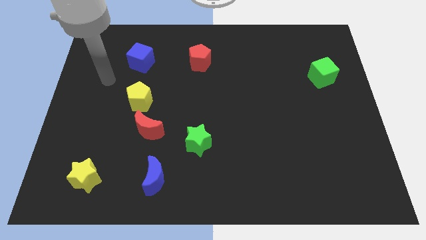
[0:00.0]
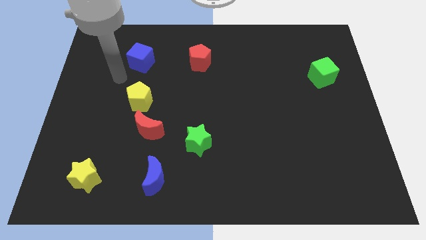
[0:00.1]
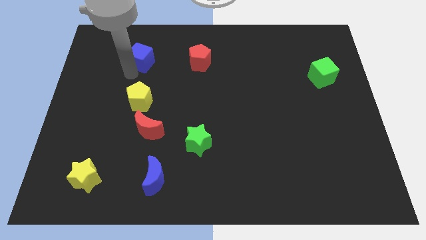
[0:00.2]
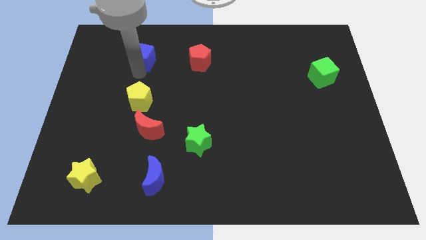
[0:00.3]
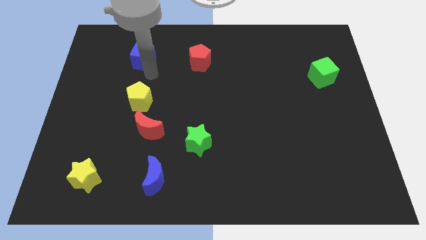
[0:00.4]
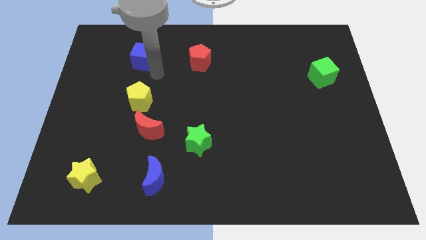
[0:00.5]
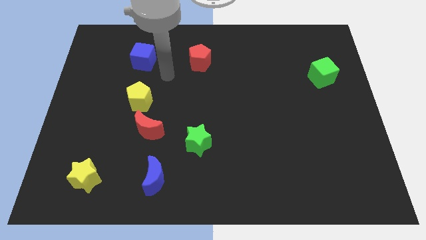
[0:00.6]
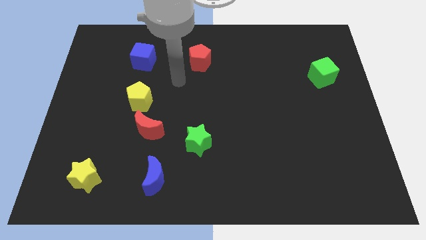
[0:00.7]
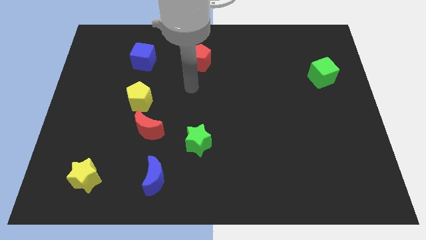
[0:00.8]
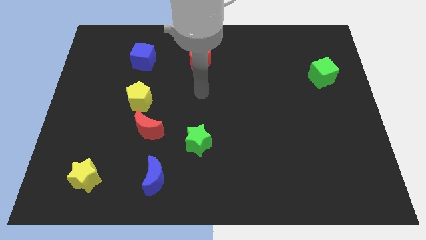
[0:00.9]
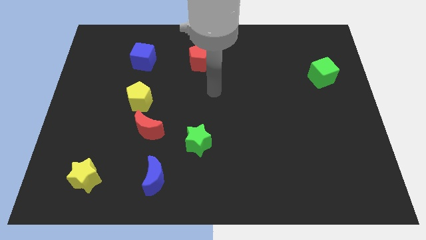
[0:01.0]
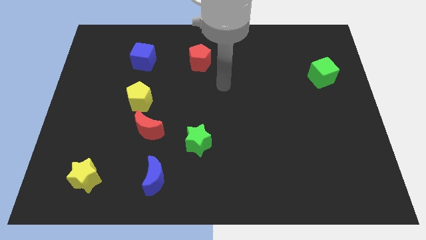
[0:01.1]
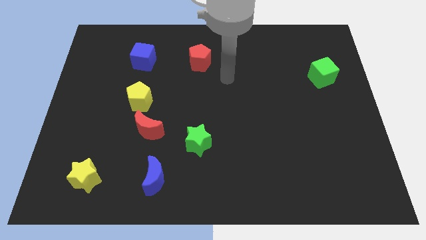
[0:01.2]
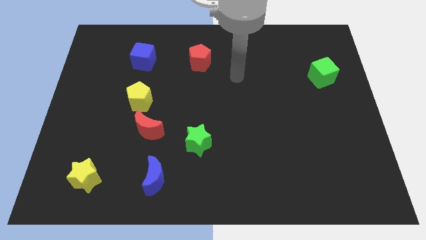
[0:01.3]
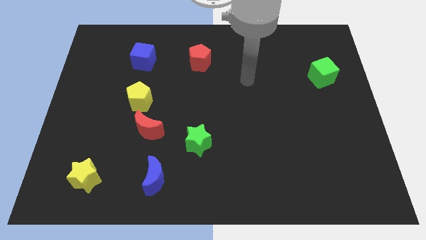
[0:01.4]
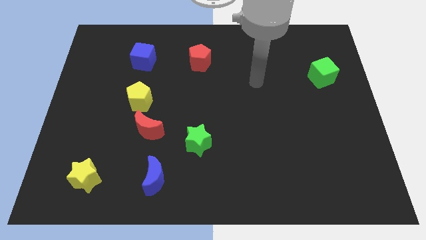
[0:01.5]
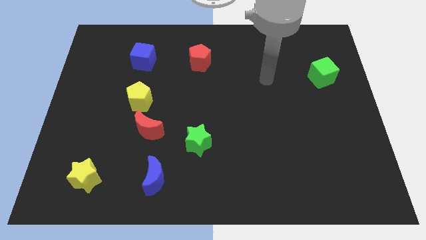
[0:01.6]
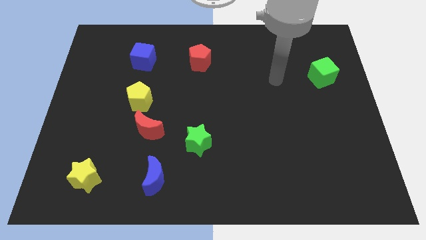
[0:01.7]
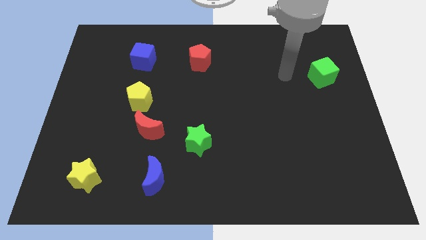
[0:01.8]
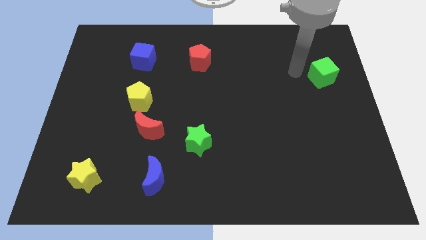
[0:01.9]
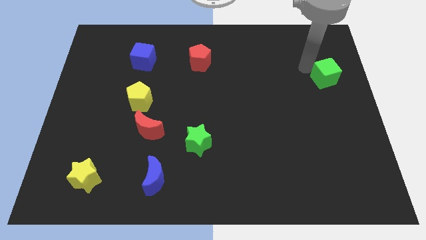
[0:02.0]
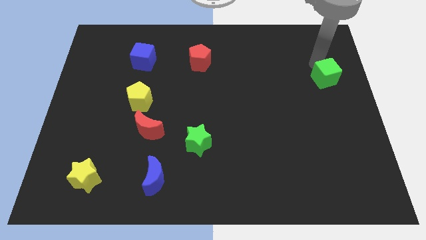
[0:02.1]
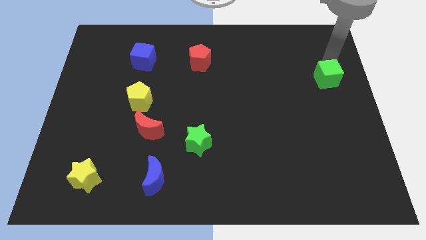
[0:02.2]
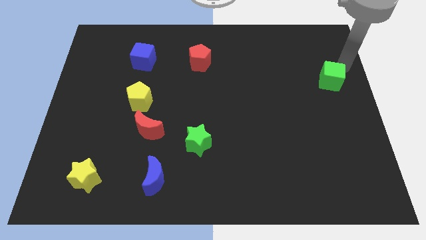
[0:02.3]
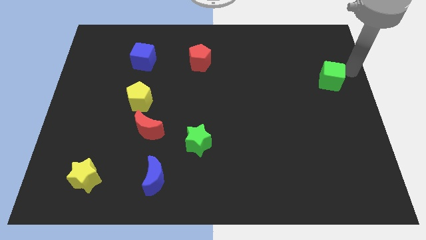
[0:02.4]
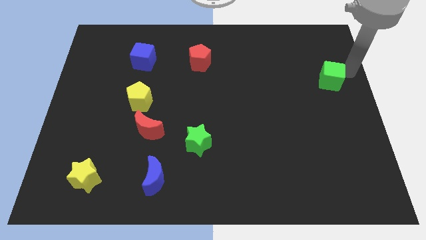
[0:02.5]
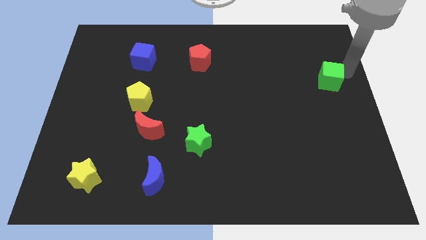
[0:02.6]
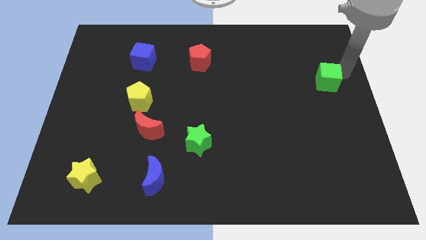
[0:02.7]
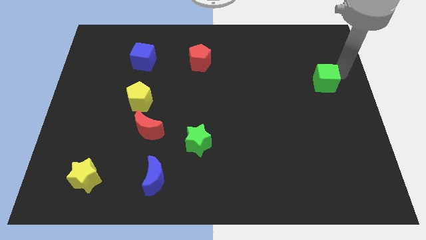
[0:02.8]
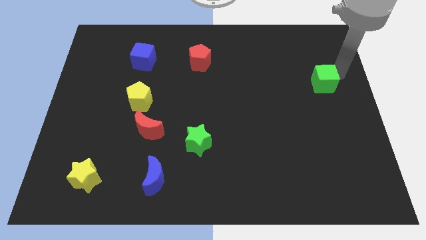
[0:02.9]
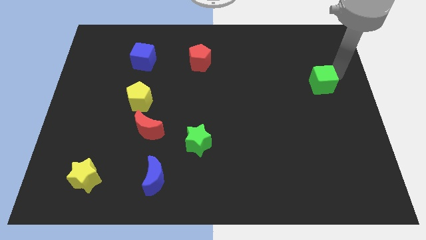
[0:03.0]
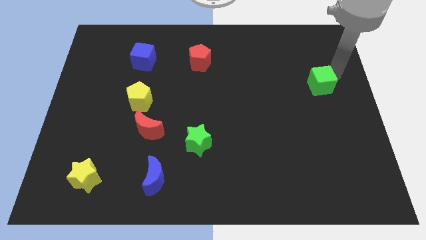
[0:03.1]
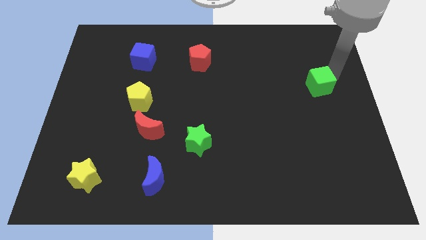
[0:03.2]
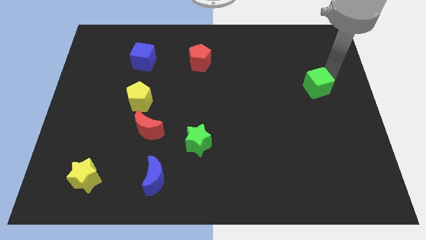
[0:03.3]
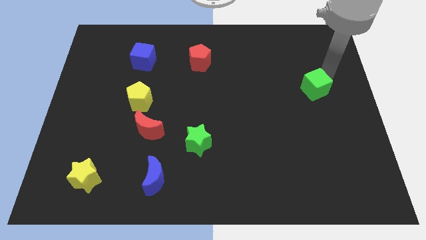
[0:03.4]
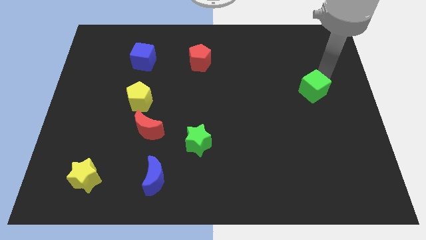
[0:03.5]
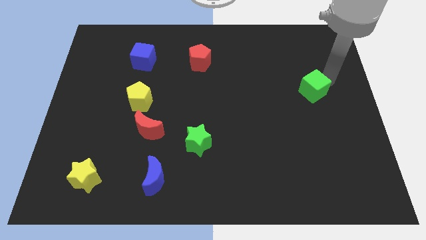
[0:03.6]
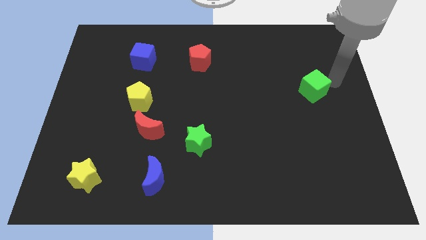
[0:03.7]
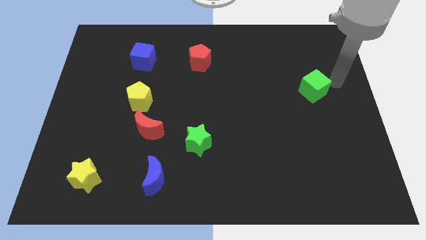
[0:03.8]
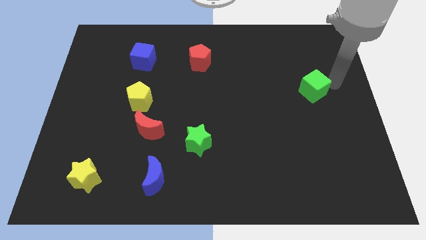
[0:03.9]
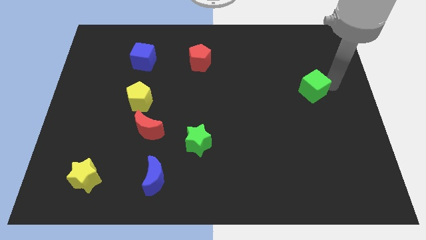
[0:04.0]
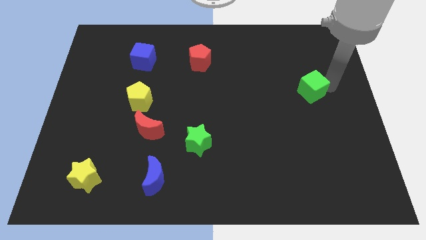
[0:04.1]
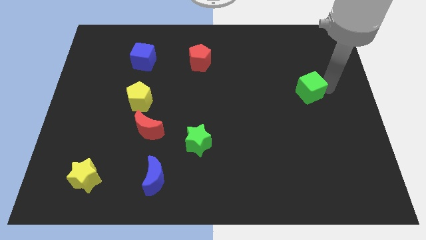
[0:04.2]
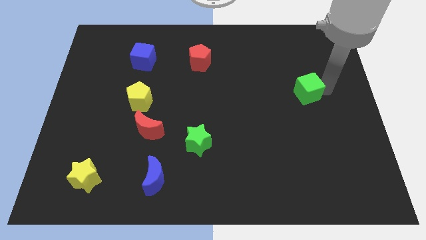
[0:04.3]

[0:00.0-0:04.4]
move the green cube down and then left a little bit

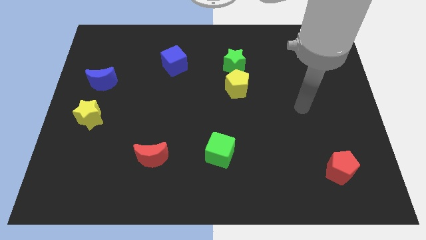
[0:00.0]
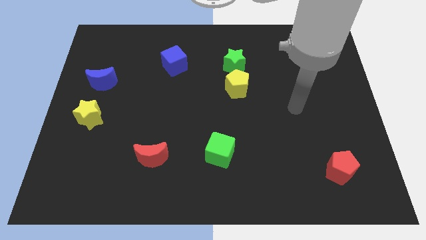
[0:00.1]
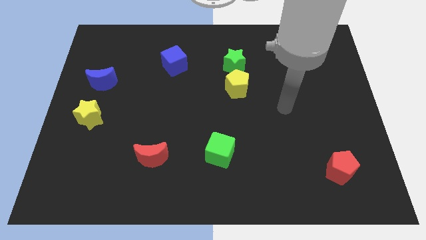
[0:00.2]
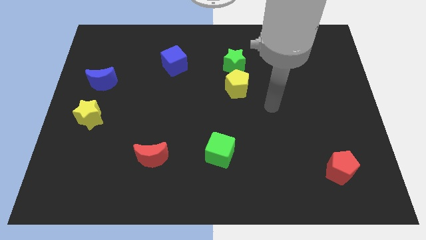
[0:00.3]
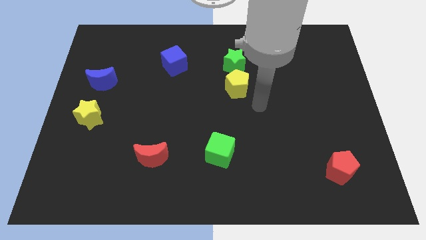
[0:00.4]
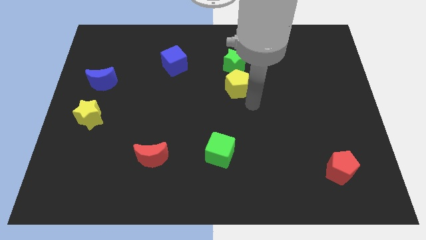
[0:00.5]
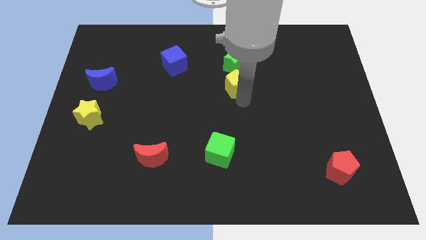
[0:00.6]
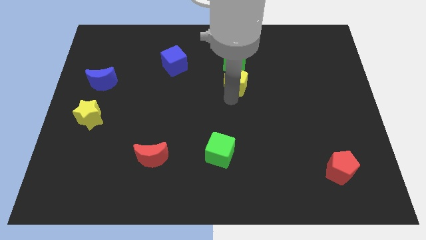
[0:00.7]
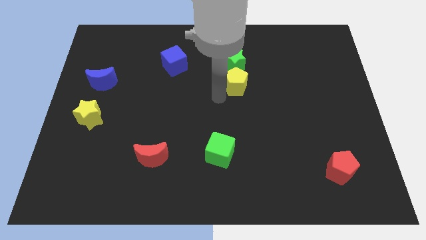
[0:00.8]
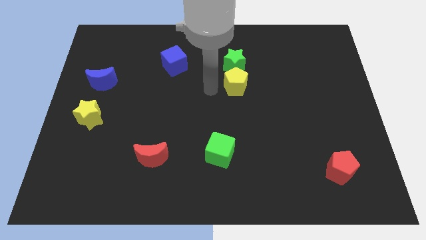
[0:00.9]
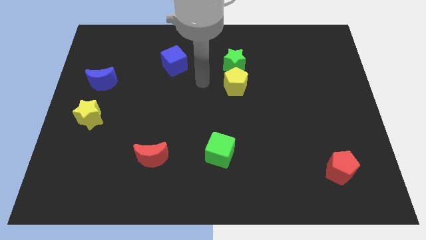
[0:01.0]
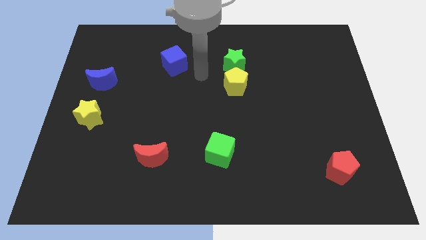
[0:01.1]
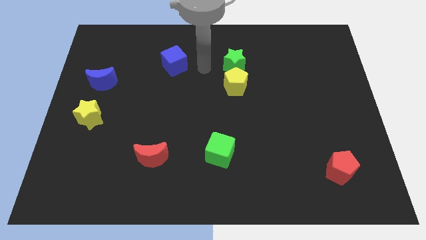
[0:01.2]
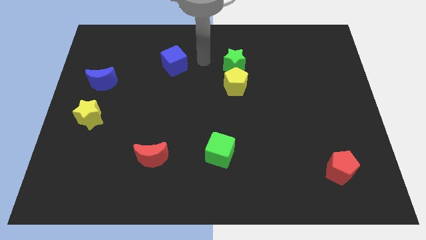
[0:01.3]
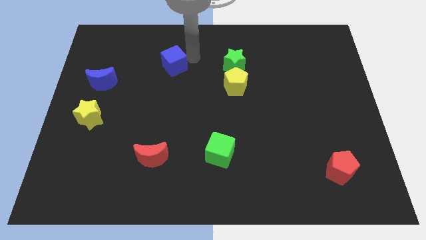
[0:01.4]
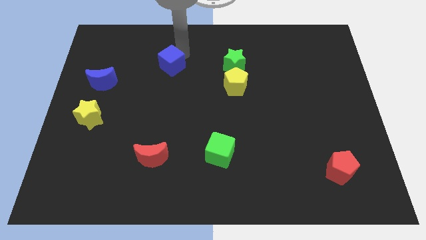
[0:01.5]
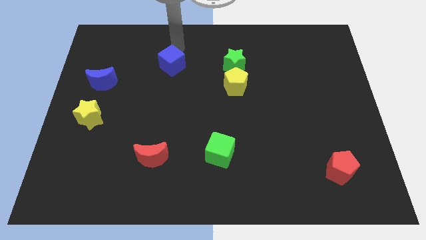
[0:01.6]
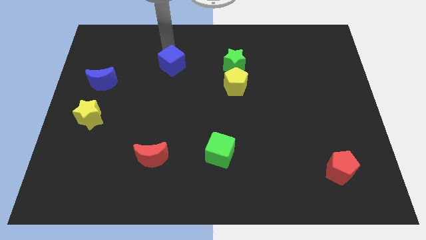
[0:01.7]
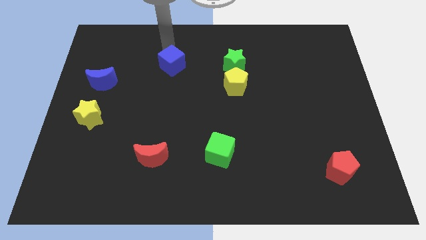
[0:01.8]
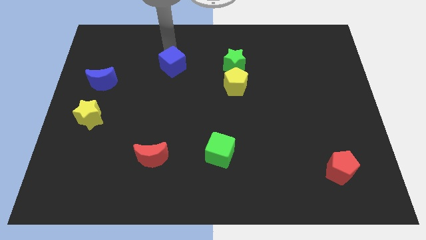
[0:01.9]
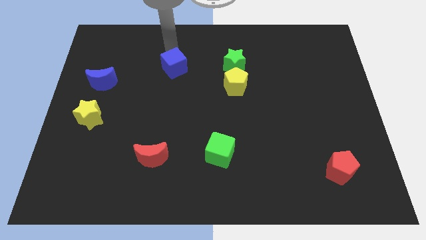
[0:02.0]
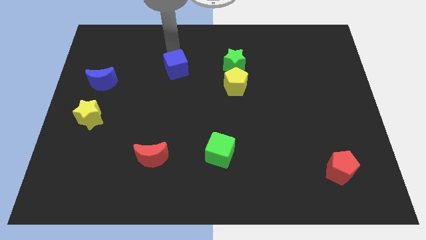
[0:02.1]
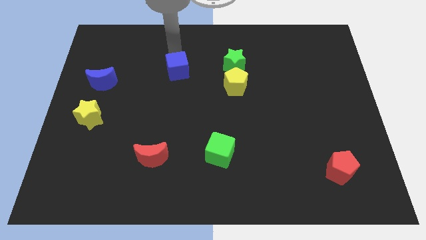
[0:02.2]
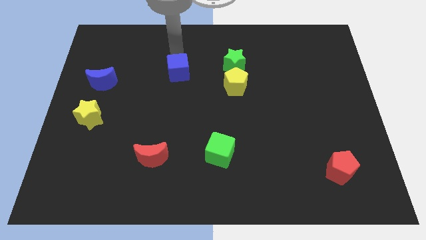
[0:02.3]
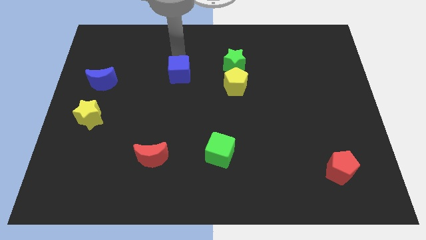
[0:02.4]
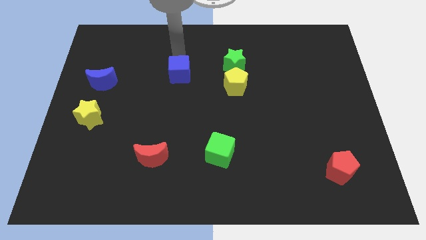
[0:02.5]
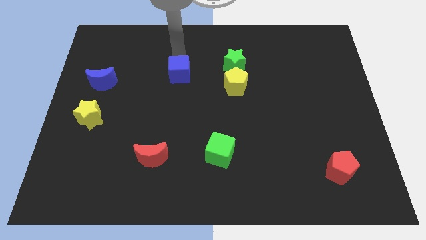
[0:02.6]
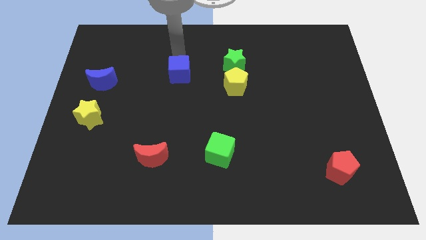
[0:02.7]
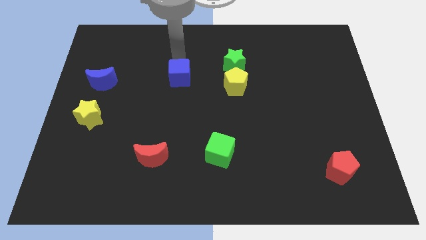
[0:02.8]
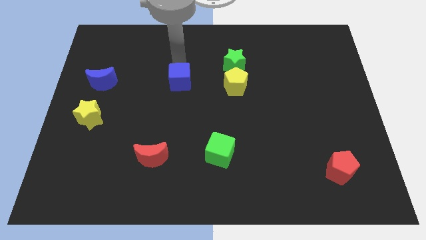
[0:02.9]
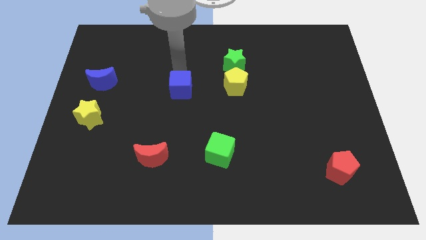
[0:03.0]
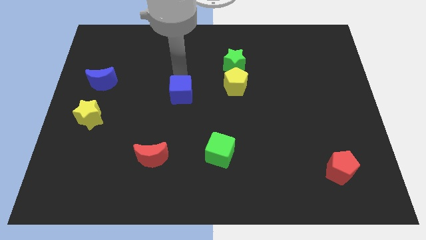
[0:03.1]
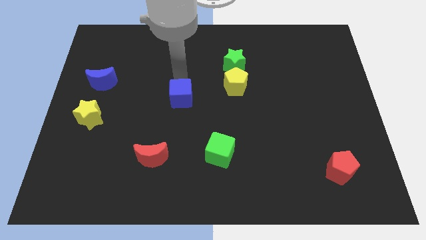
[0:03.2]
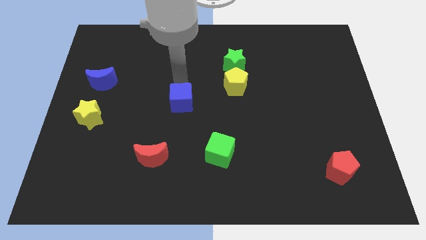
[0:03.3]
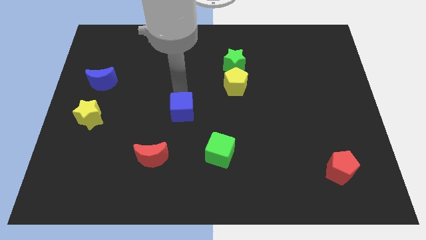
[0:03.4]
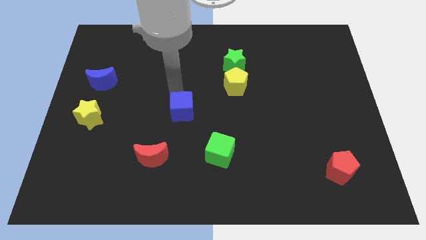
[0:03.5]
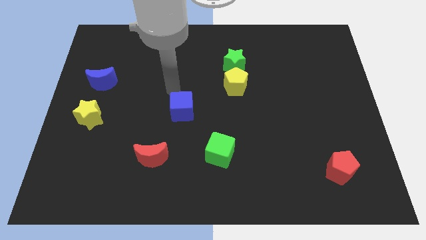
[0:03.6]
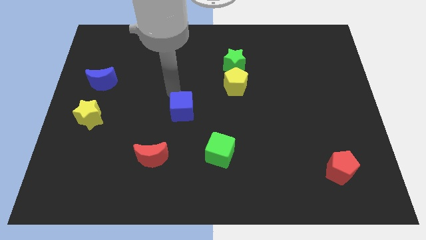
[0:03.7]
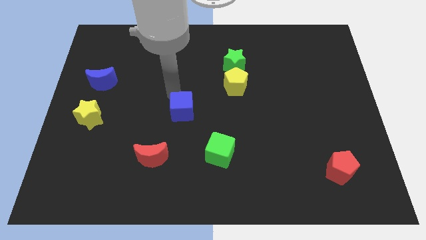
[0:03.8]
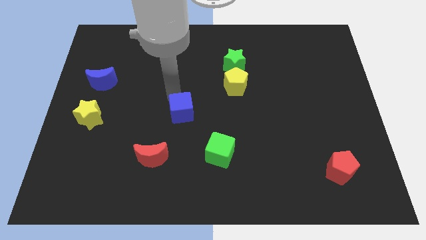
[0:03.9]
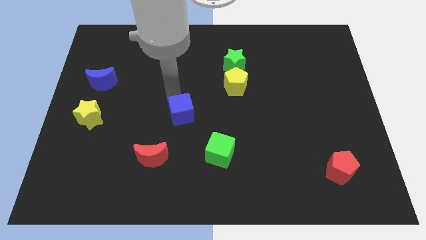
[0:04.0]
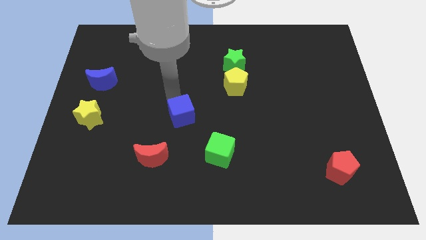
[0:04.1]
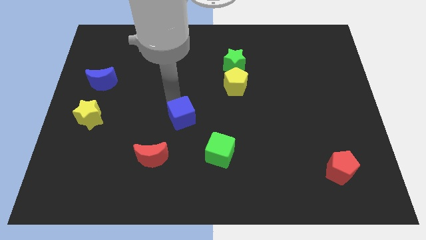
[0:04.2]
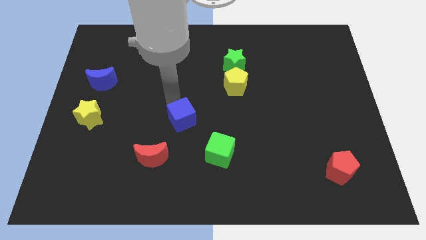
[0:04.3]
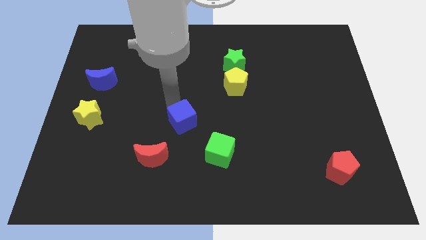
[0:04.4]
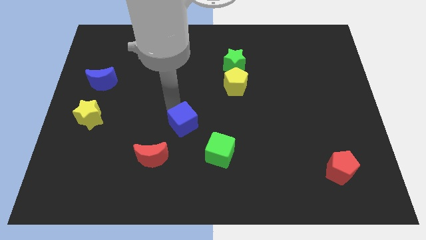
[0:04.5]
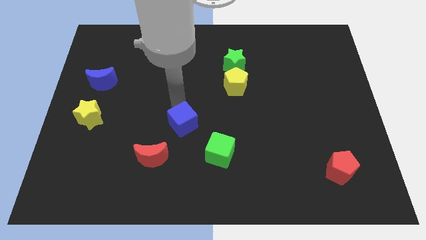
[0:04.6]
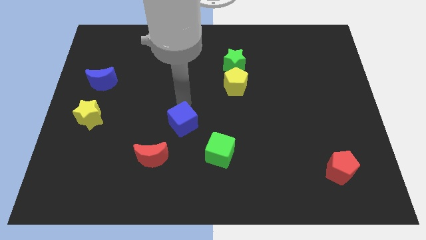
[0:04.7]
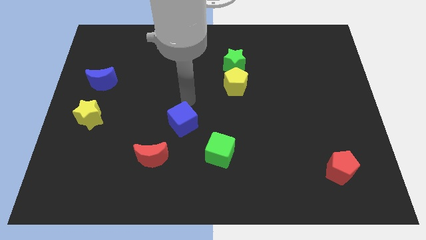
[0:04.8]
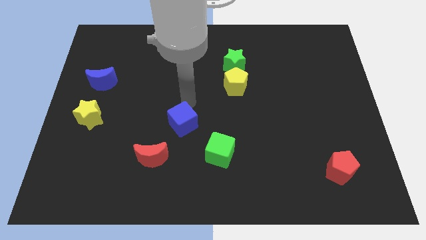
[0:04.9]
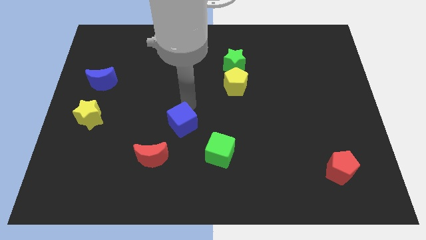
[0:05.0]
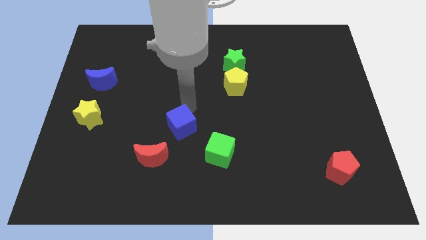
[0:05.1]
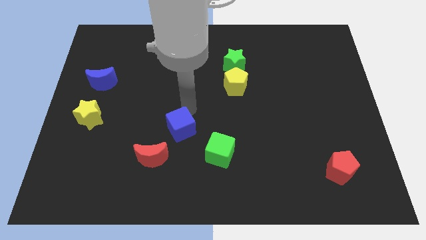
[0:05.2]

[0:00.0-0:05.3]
move the blue cube down
